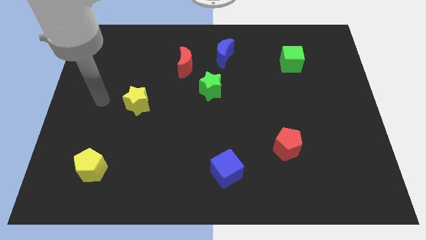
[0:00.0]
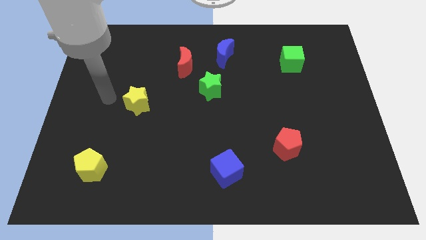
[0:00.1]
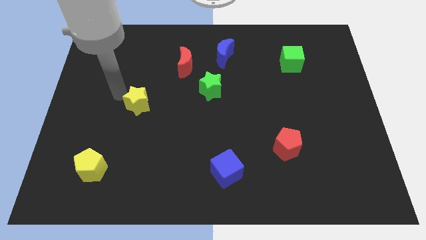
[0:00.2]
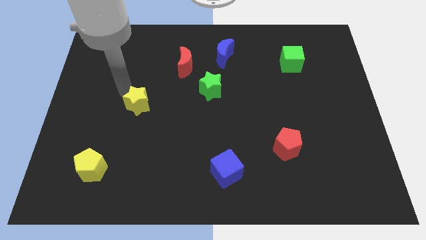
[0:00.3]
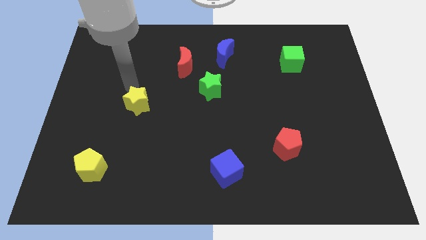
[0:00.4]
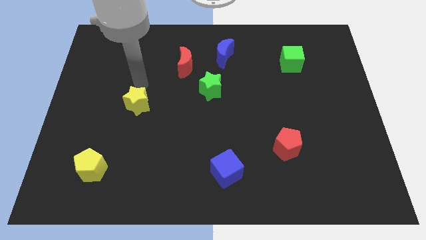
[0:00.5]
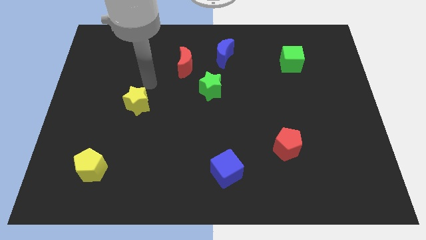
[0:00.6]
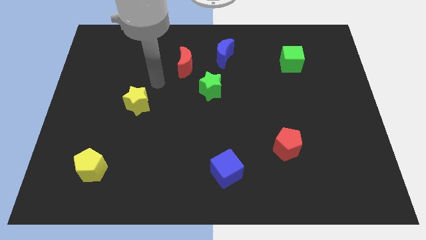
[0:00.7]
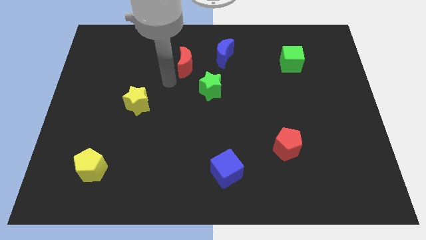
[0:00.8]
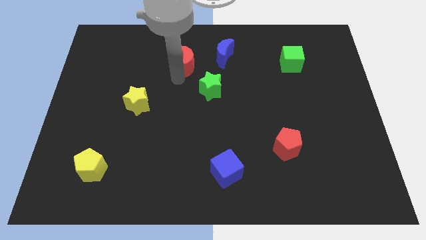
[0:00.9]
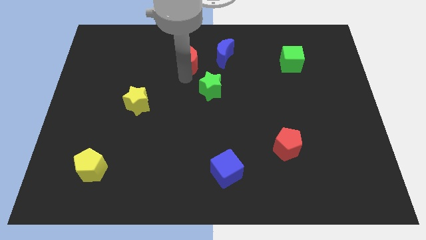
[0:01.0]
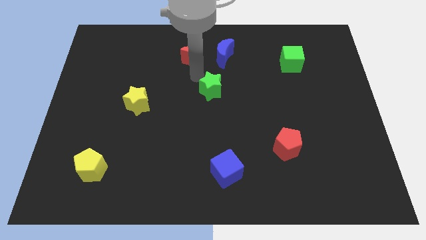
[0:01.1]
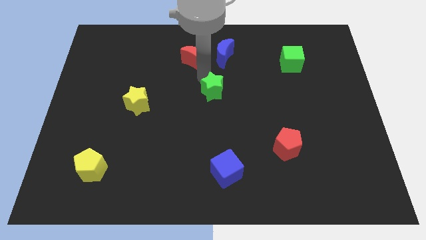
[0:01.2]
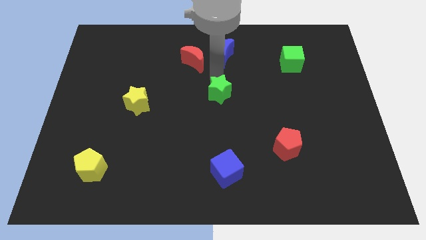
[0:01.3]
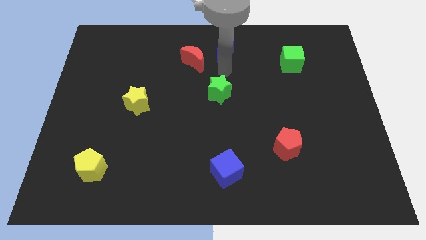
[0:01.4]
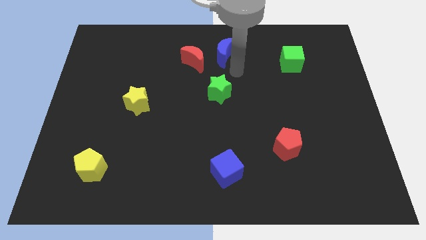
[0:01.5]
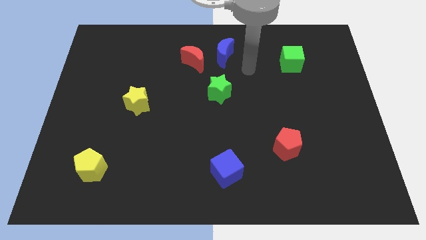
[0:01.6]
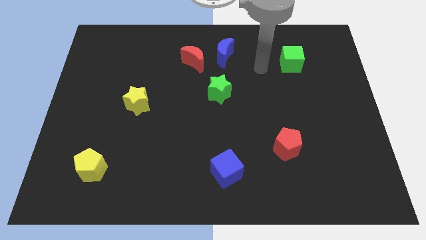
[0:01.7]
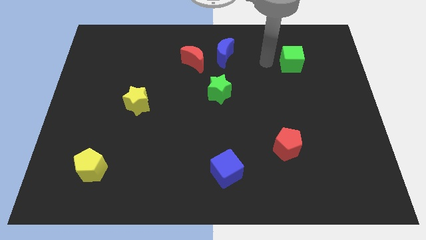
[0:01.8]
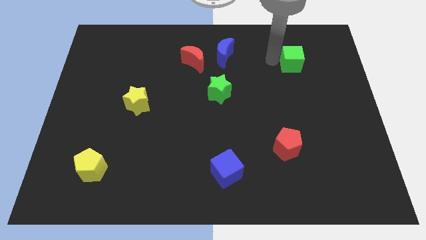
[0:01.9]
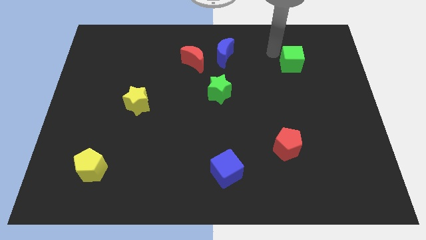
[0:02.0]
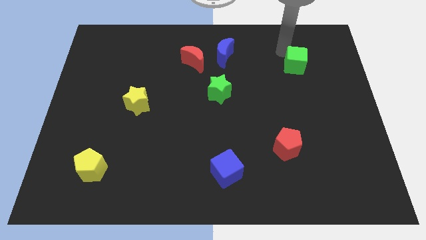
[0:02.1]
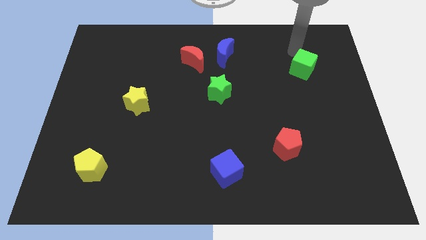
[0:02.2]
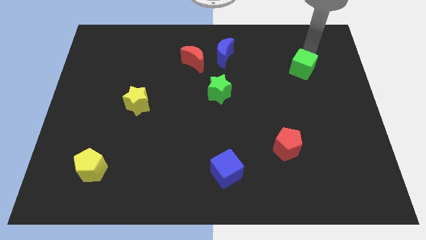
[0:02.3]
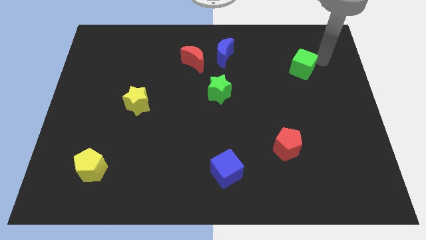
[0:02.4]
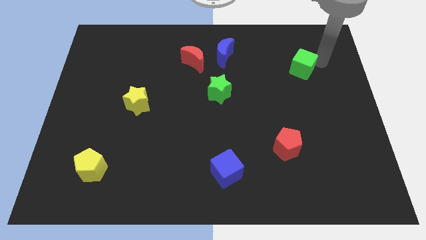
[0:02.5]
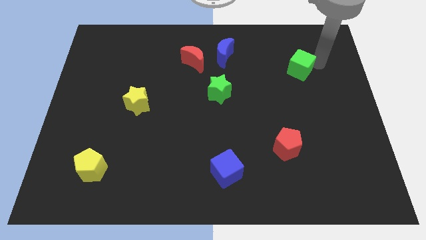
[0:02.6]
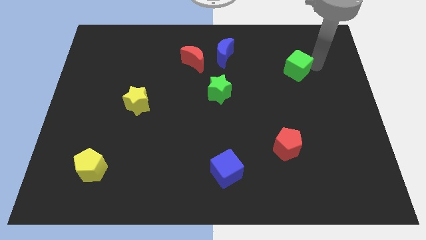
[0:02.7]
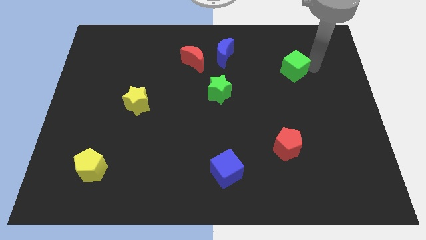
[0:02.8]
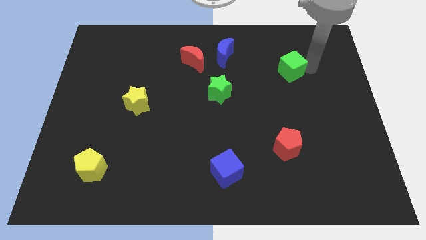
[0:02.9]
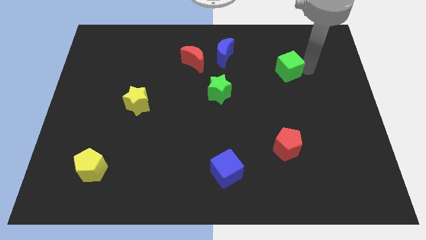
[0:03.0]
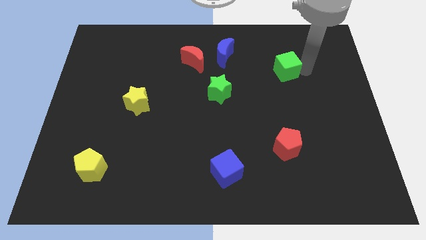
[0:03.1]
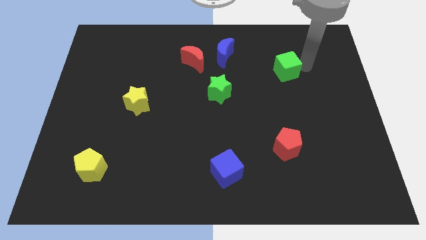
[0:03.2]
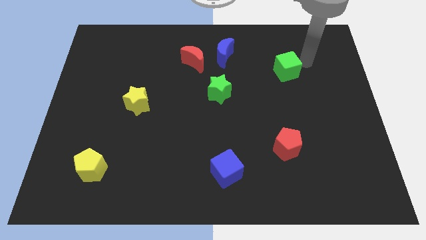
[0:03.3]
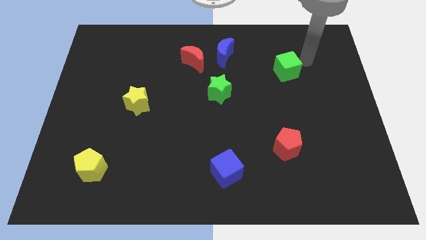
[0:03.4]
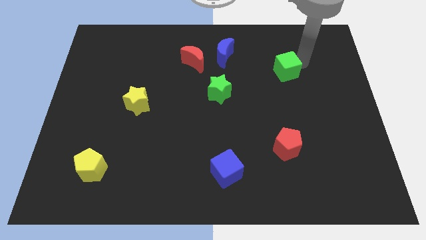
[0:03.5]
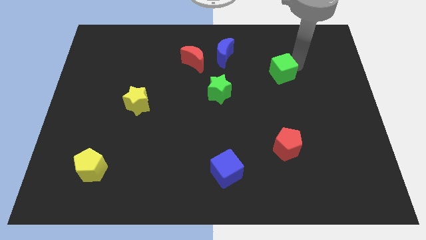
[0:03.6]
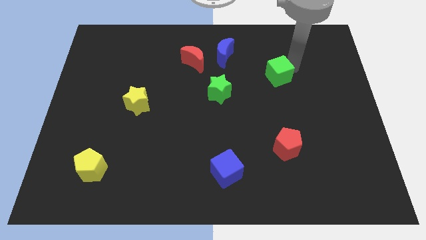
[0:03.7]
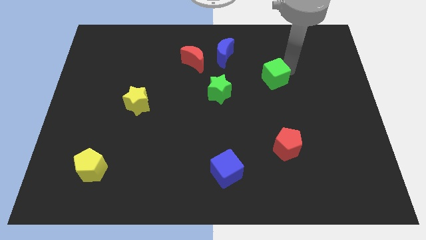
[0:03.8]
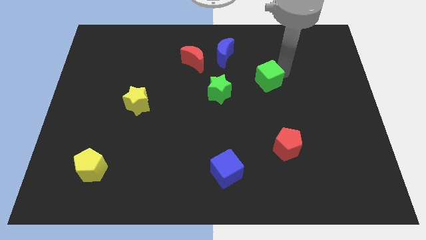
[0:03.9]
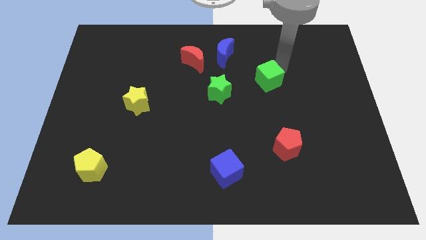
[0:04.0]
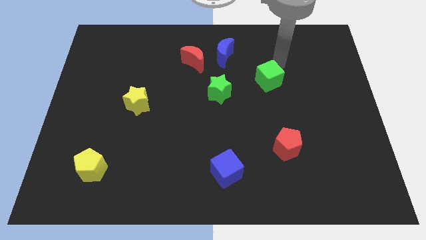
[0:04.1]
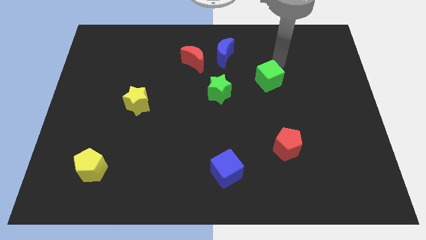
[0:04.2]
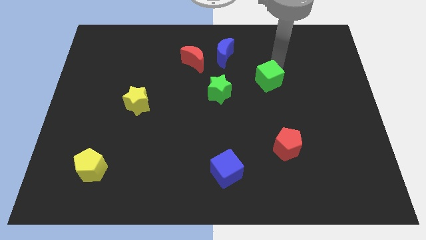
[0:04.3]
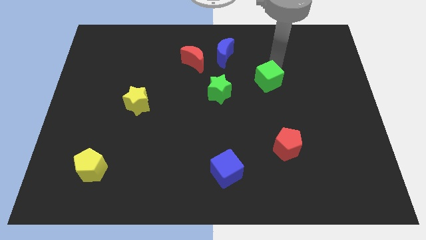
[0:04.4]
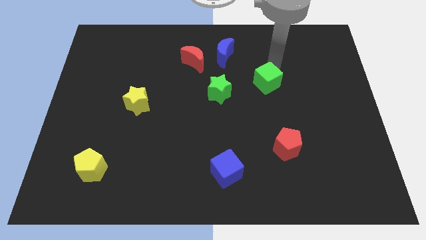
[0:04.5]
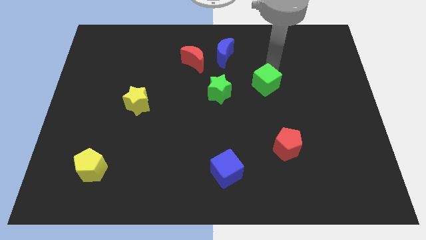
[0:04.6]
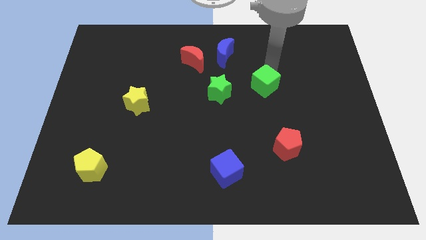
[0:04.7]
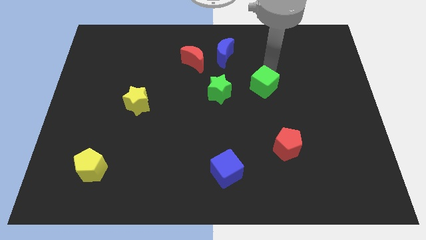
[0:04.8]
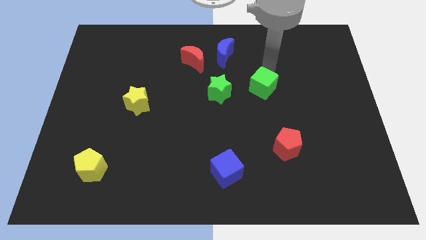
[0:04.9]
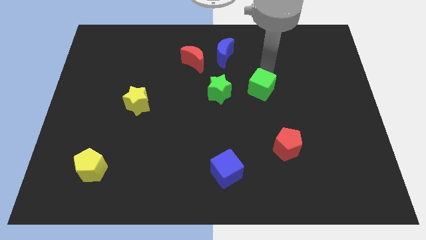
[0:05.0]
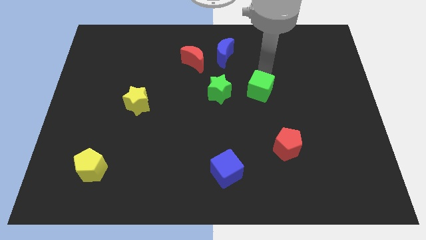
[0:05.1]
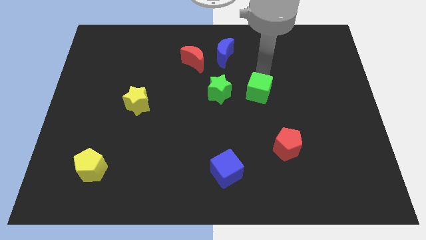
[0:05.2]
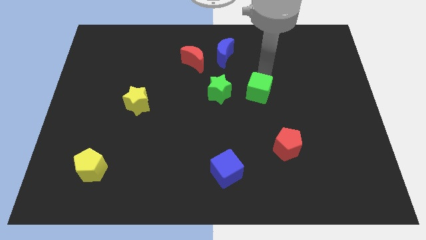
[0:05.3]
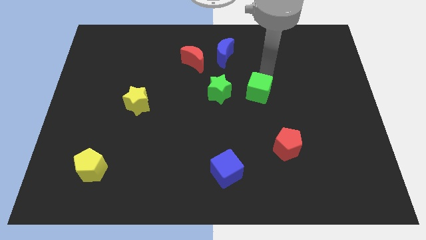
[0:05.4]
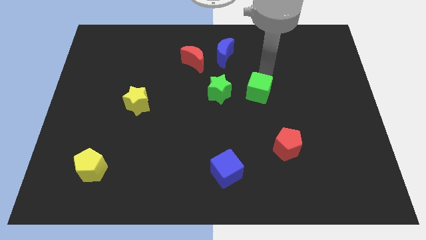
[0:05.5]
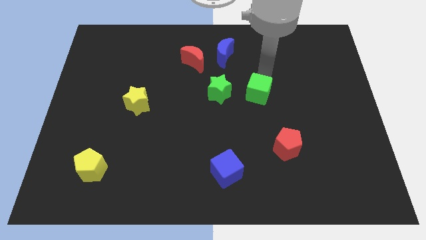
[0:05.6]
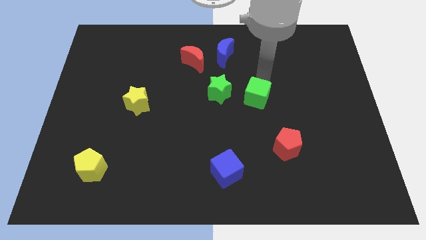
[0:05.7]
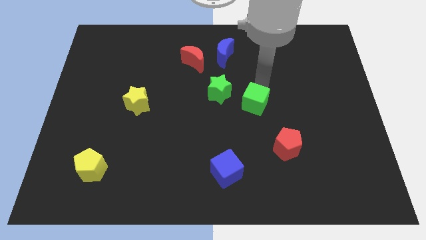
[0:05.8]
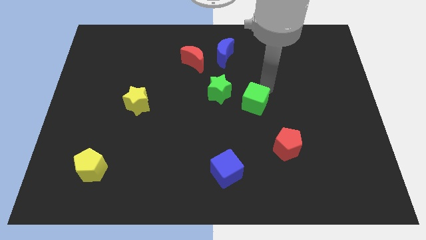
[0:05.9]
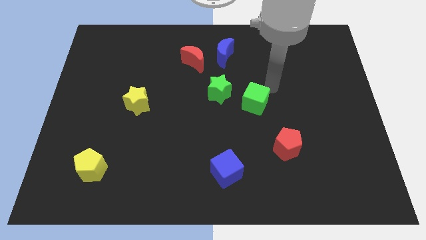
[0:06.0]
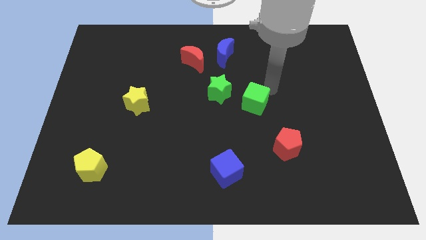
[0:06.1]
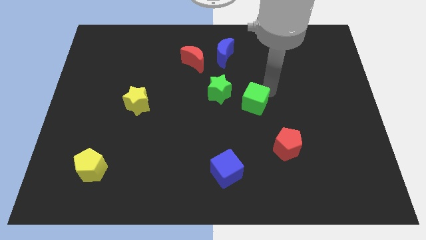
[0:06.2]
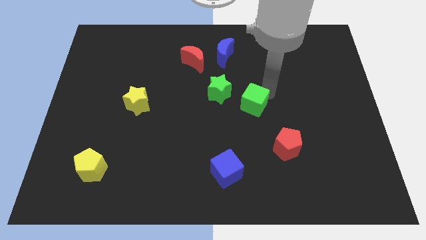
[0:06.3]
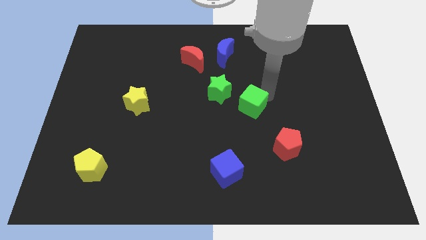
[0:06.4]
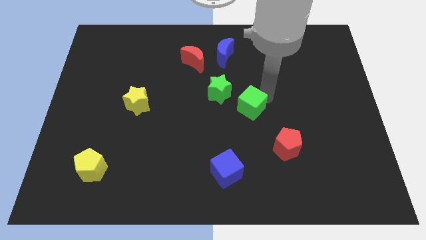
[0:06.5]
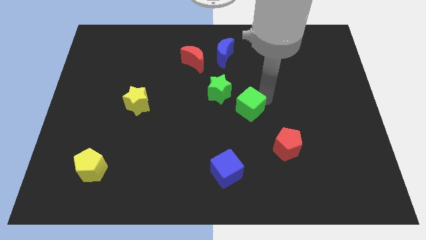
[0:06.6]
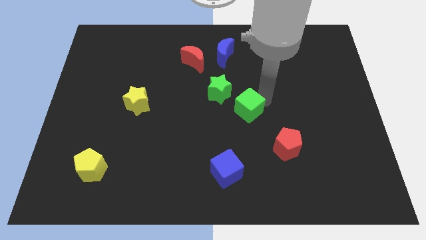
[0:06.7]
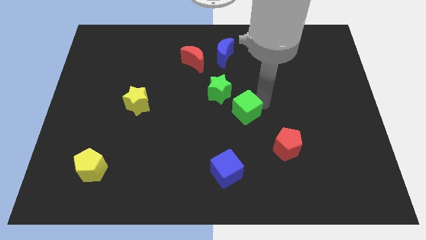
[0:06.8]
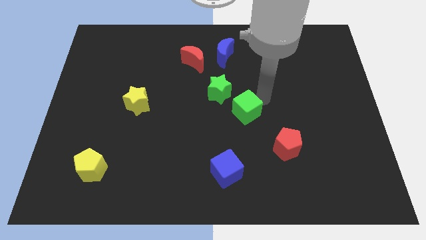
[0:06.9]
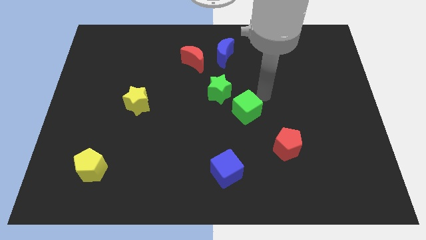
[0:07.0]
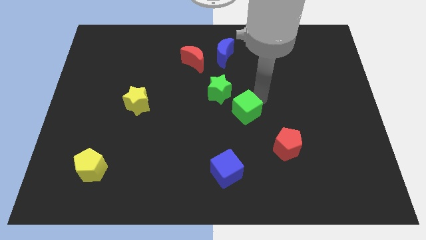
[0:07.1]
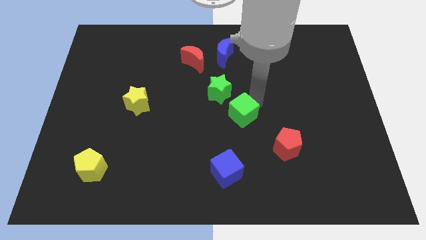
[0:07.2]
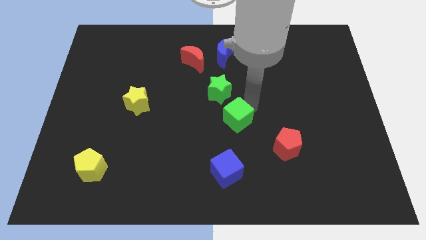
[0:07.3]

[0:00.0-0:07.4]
move the green cube above the blue cube

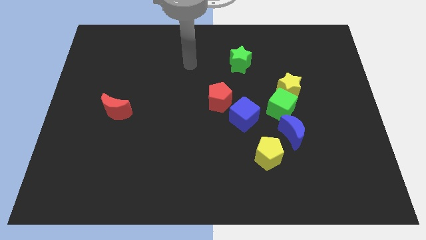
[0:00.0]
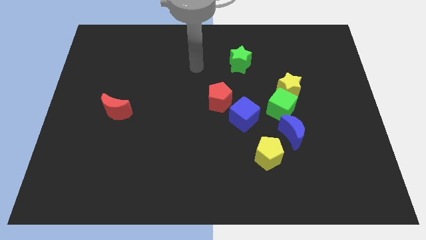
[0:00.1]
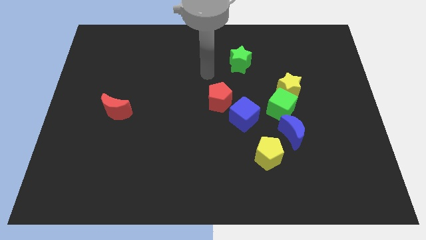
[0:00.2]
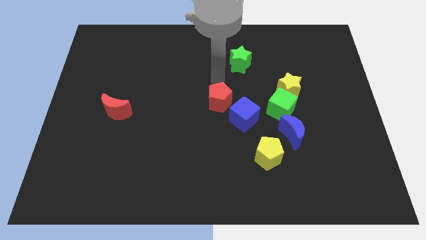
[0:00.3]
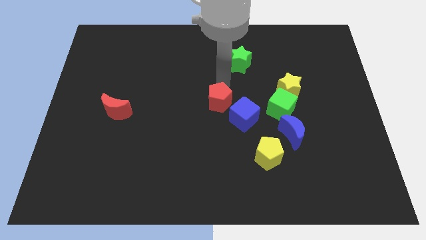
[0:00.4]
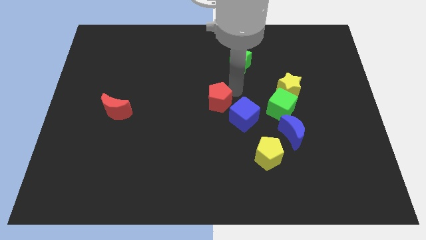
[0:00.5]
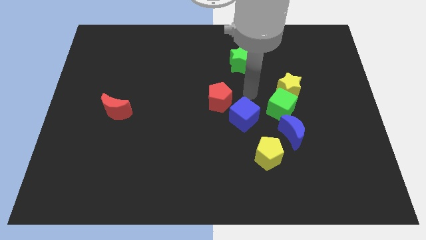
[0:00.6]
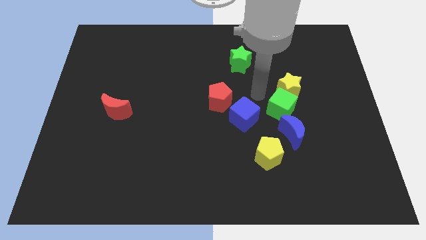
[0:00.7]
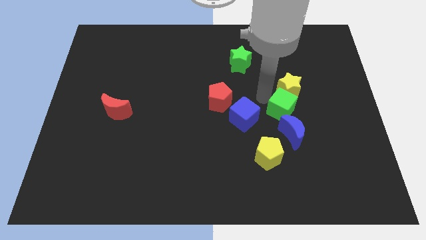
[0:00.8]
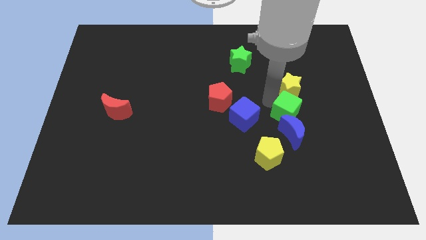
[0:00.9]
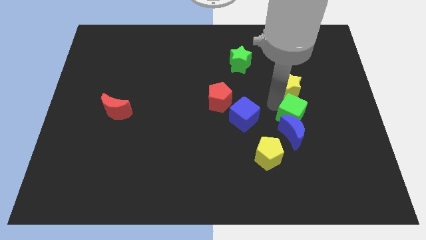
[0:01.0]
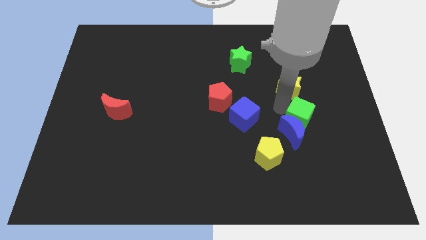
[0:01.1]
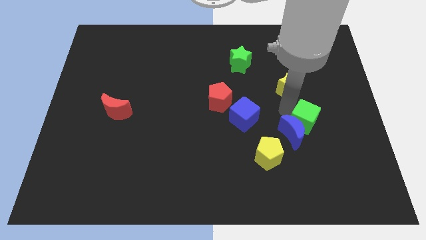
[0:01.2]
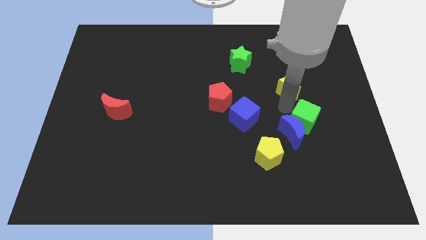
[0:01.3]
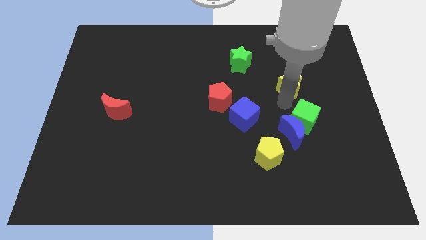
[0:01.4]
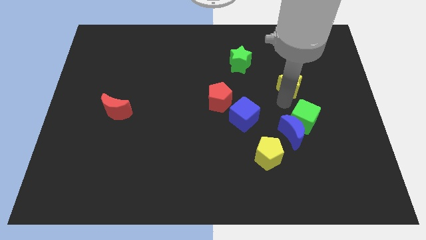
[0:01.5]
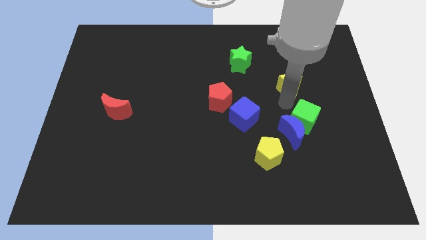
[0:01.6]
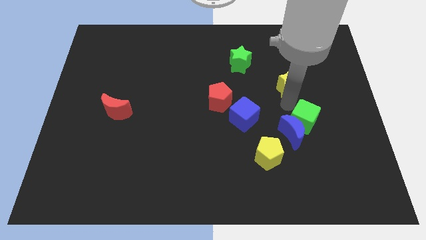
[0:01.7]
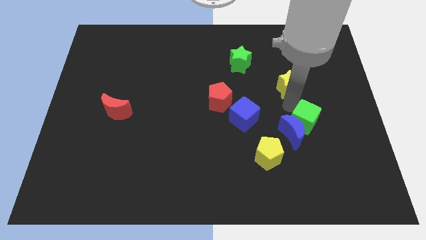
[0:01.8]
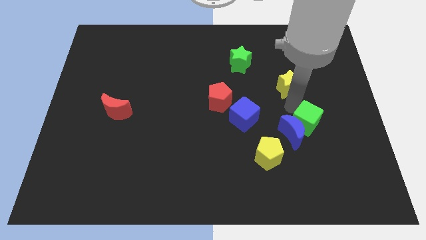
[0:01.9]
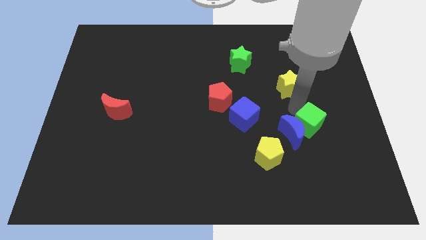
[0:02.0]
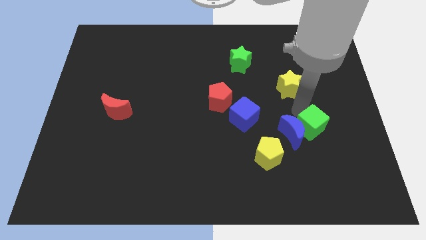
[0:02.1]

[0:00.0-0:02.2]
push the green cube diagonally down and to the right of the blue moon
